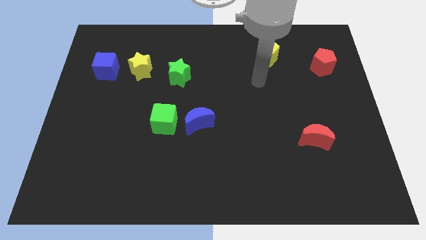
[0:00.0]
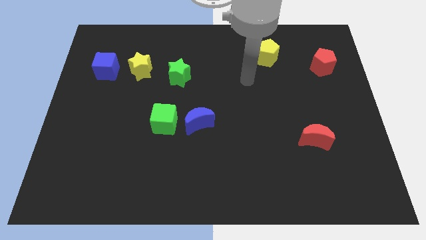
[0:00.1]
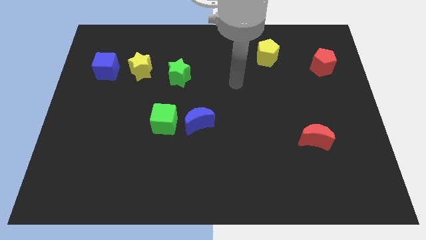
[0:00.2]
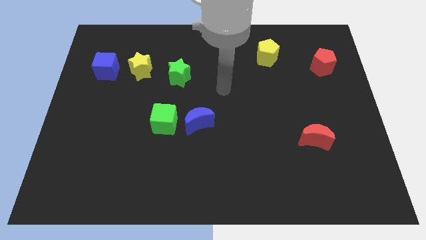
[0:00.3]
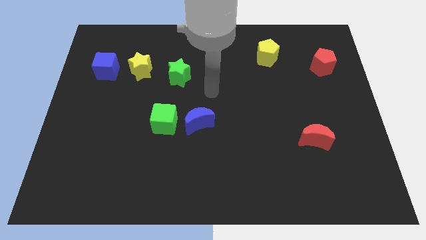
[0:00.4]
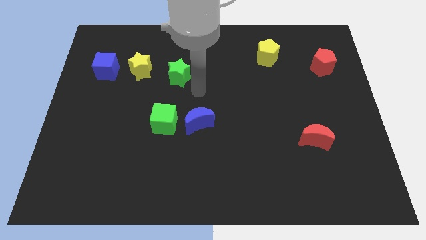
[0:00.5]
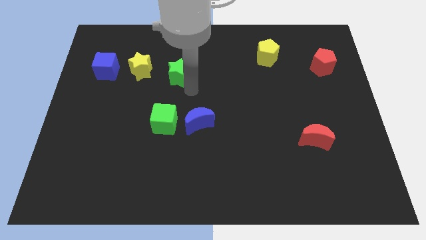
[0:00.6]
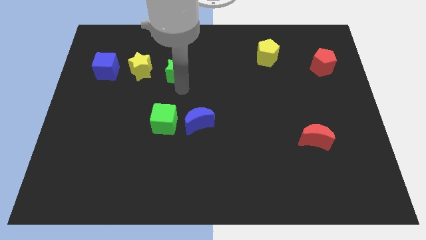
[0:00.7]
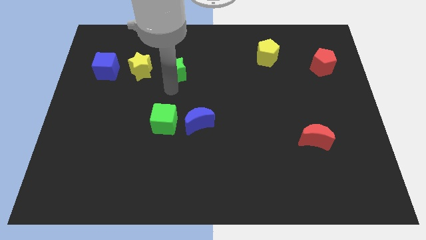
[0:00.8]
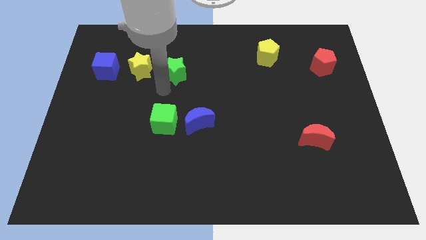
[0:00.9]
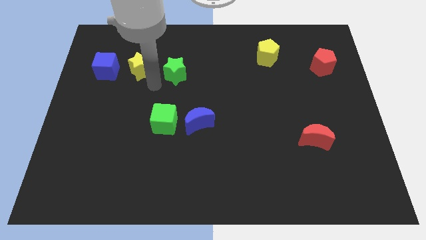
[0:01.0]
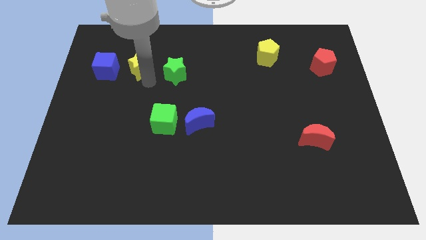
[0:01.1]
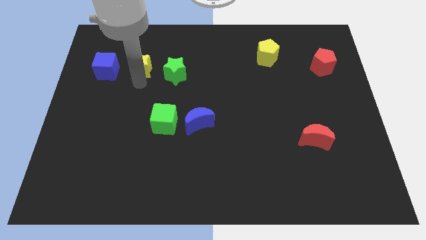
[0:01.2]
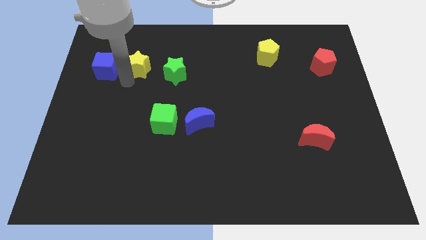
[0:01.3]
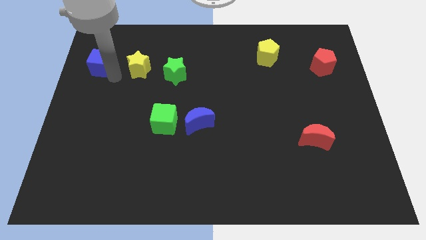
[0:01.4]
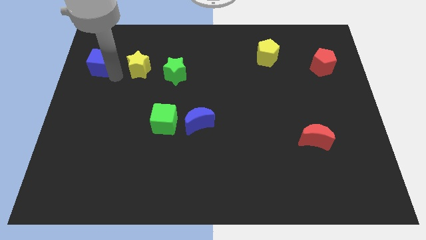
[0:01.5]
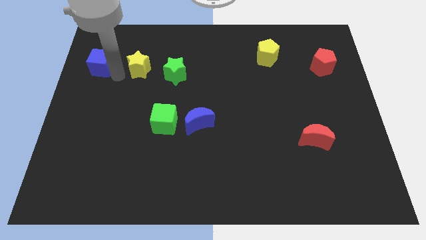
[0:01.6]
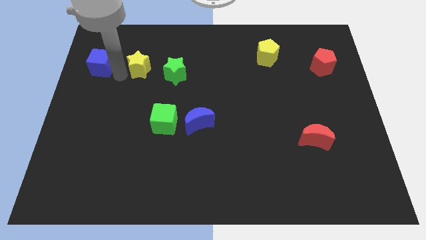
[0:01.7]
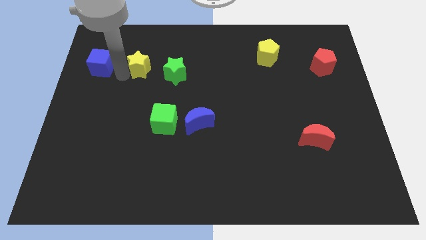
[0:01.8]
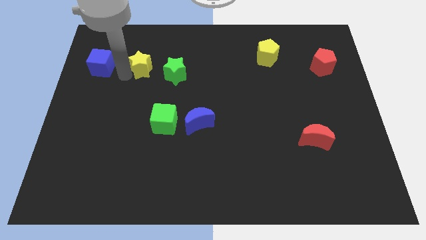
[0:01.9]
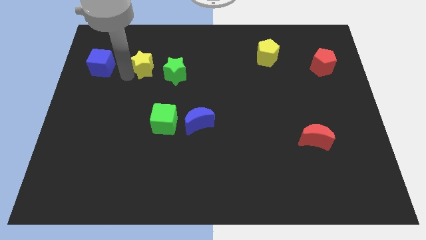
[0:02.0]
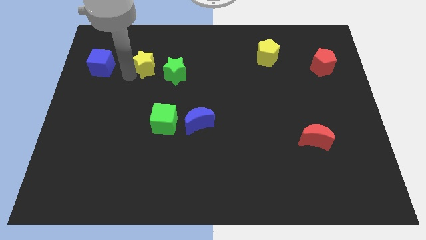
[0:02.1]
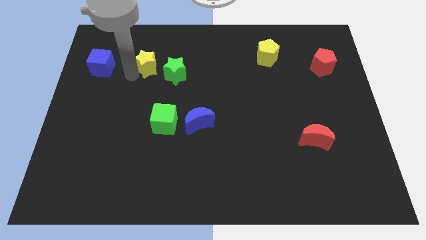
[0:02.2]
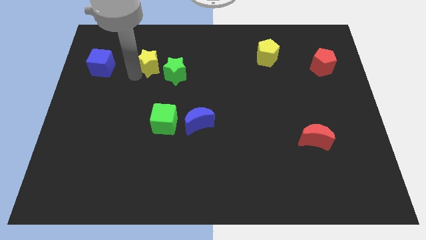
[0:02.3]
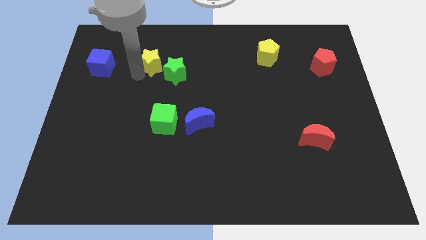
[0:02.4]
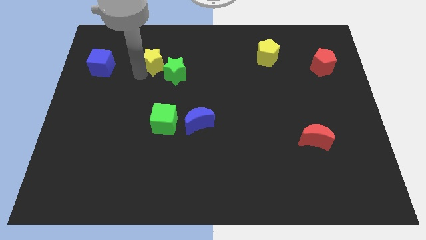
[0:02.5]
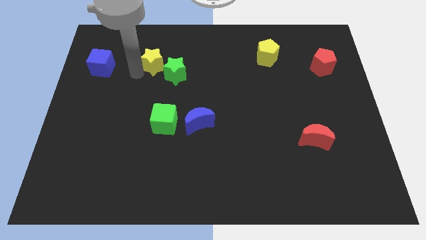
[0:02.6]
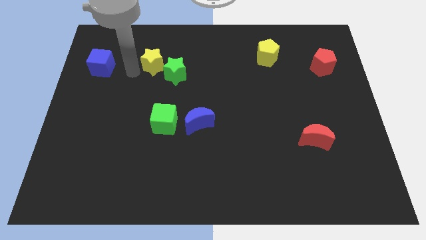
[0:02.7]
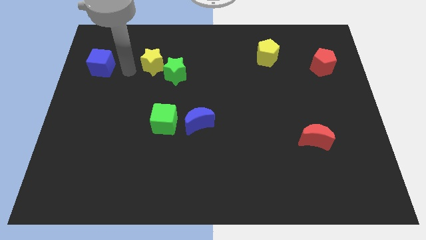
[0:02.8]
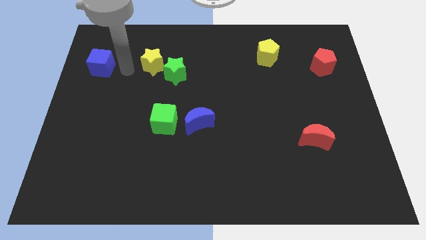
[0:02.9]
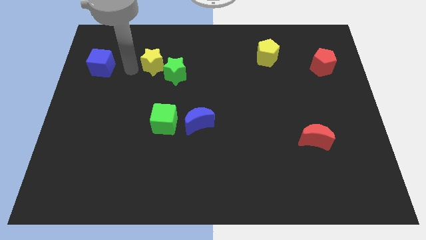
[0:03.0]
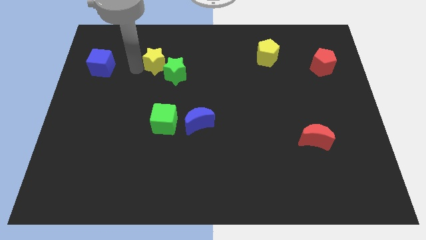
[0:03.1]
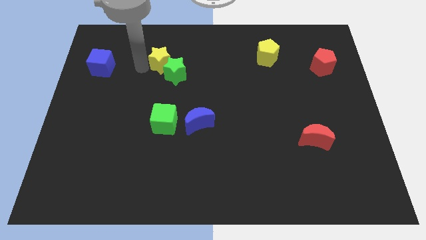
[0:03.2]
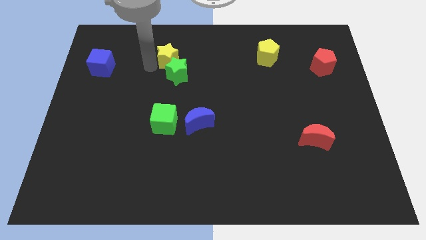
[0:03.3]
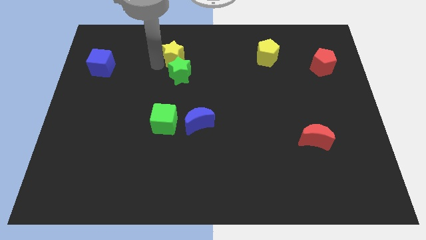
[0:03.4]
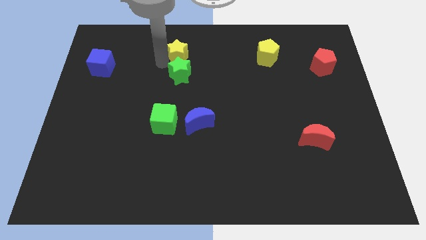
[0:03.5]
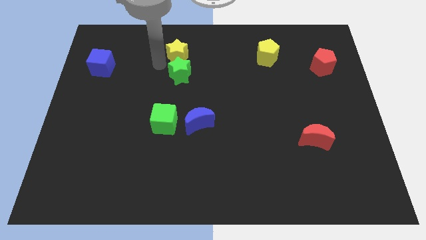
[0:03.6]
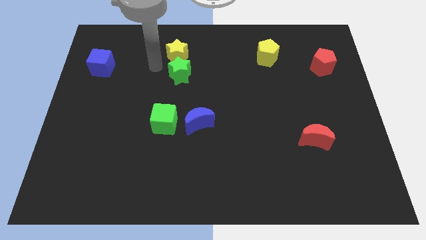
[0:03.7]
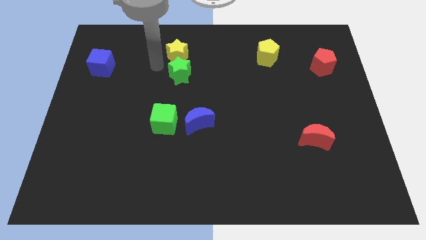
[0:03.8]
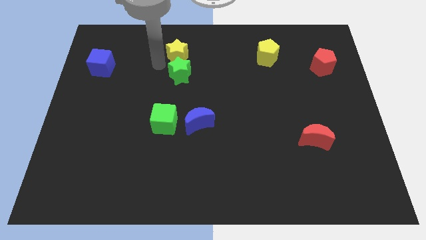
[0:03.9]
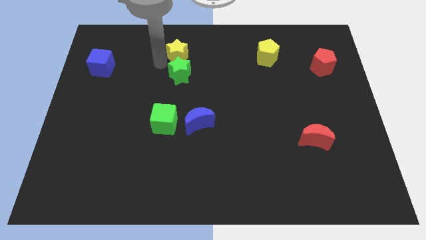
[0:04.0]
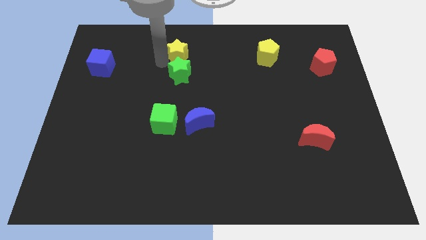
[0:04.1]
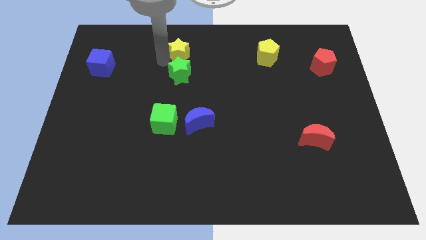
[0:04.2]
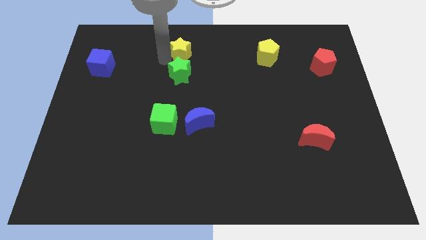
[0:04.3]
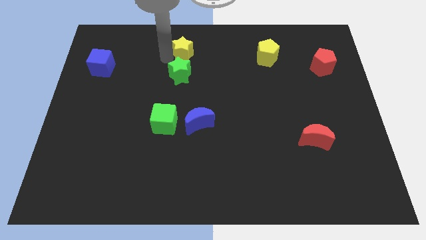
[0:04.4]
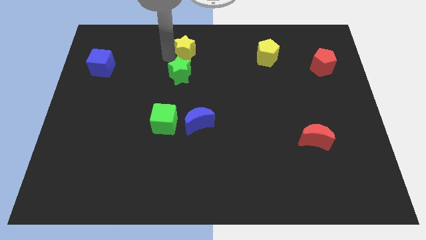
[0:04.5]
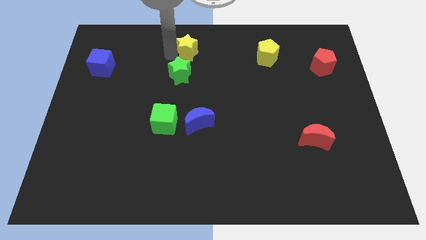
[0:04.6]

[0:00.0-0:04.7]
put the yellow star to the top side

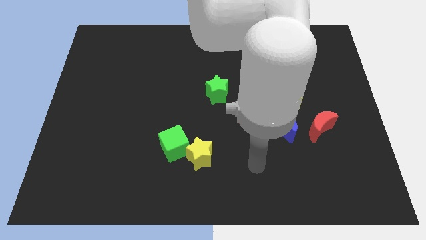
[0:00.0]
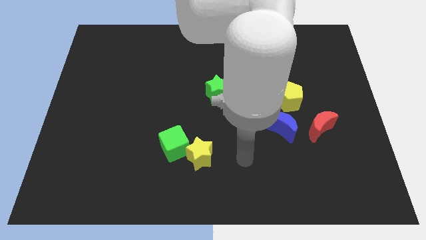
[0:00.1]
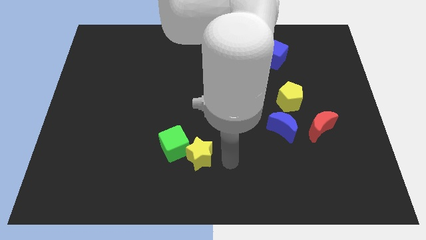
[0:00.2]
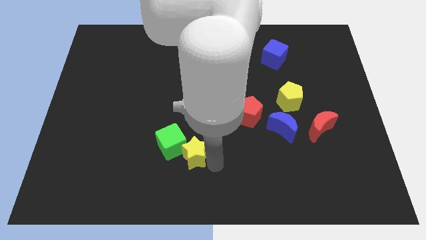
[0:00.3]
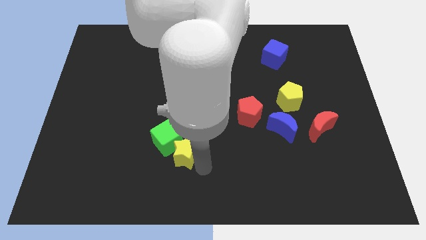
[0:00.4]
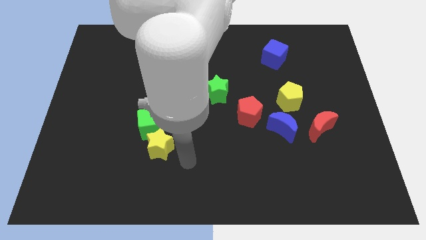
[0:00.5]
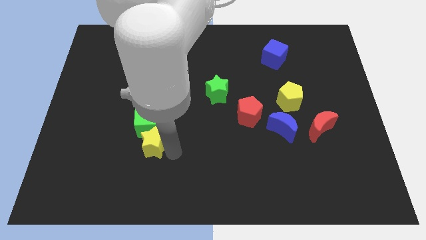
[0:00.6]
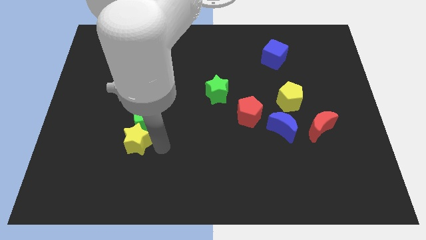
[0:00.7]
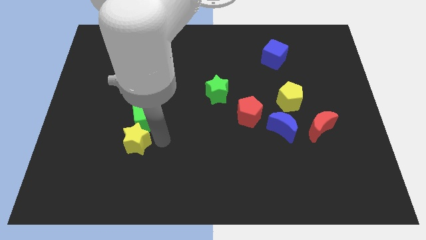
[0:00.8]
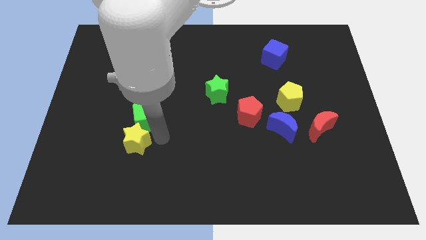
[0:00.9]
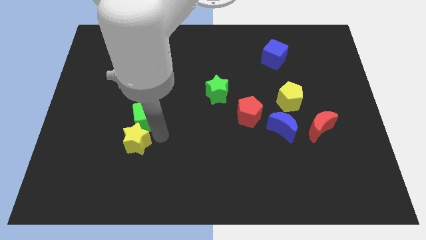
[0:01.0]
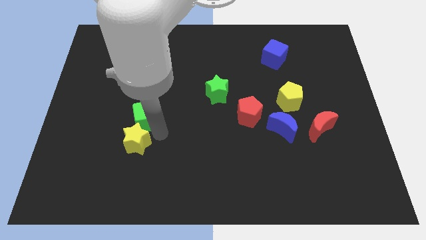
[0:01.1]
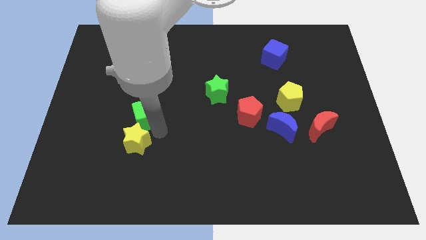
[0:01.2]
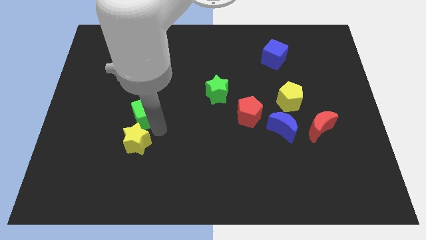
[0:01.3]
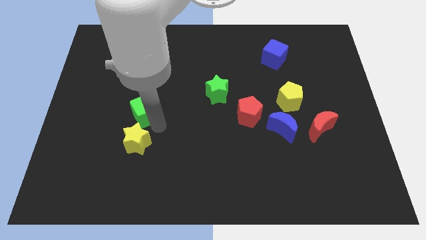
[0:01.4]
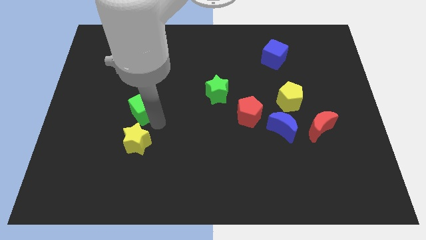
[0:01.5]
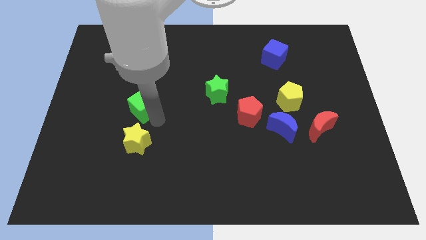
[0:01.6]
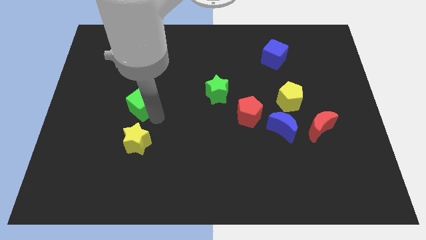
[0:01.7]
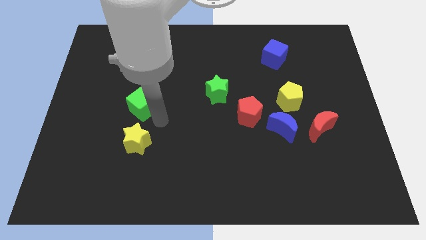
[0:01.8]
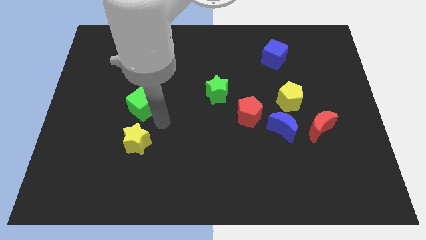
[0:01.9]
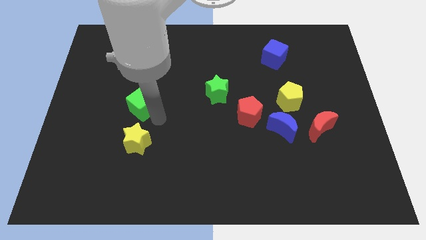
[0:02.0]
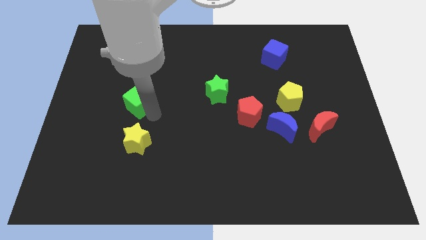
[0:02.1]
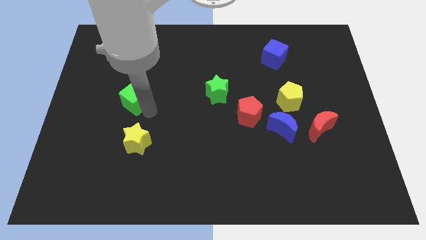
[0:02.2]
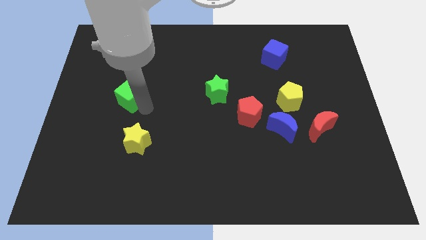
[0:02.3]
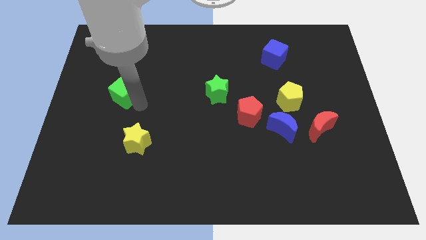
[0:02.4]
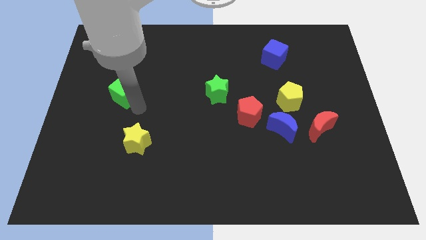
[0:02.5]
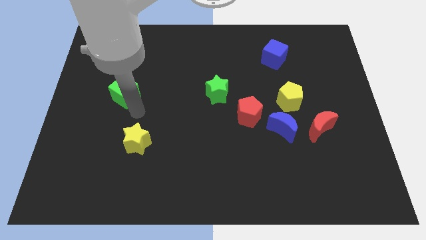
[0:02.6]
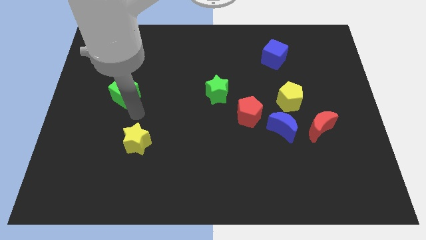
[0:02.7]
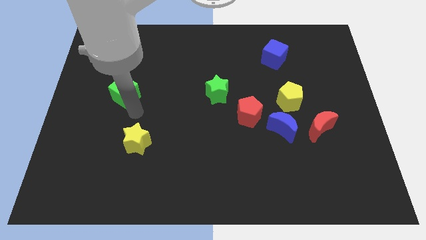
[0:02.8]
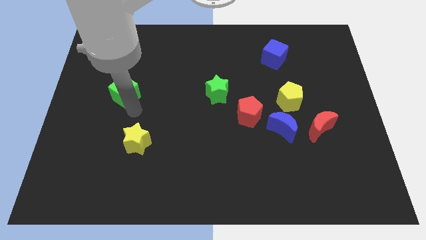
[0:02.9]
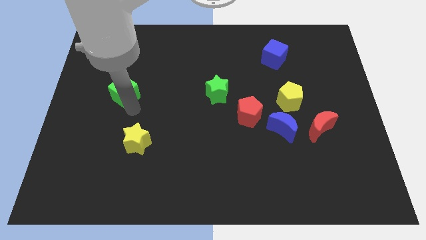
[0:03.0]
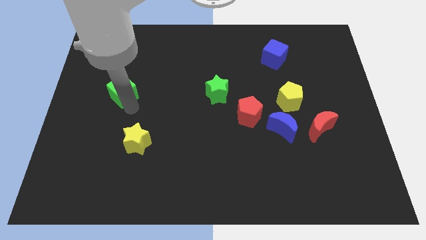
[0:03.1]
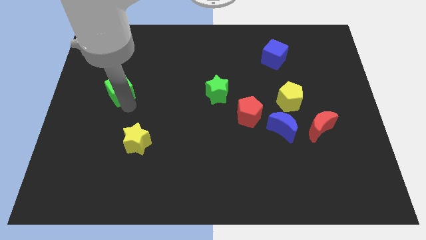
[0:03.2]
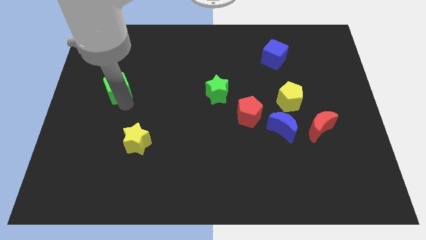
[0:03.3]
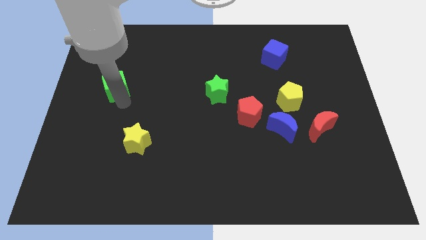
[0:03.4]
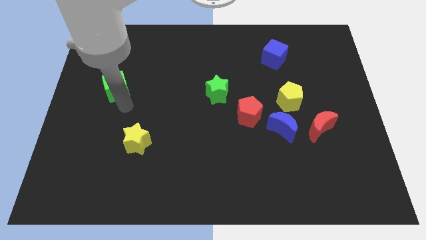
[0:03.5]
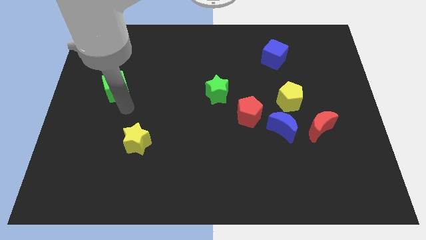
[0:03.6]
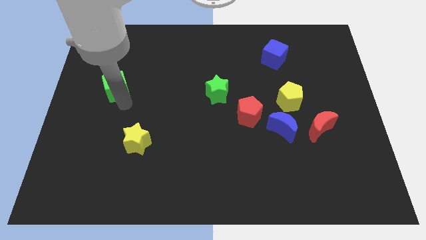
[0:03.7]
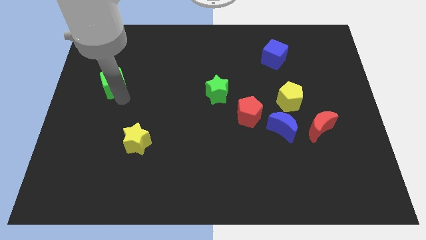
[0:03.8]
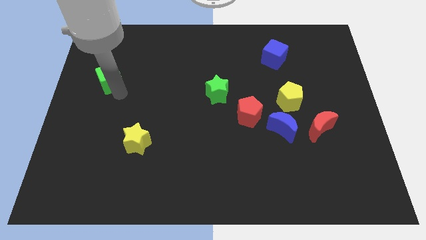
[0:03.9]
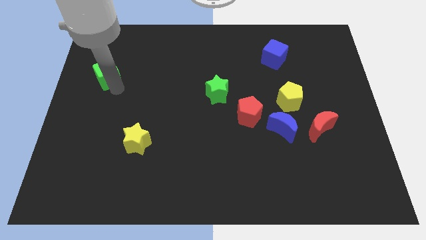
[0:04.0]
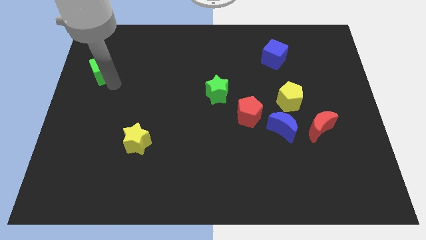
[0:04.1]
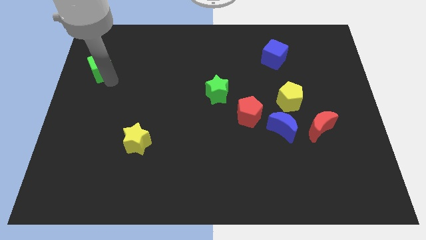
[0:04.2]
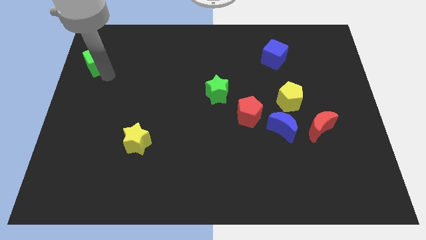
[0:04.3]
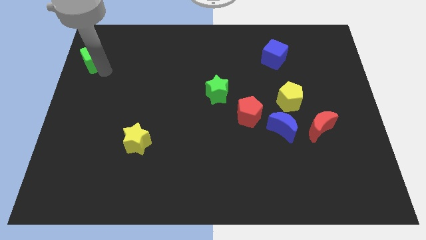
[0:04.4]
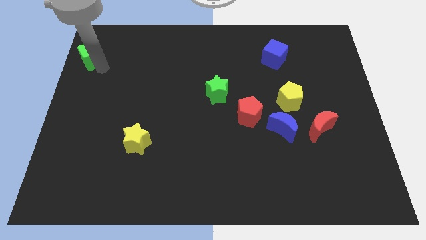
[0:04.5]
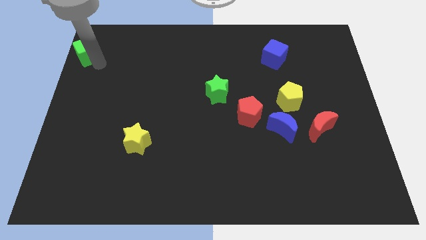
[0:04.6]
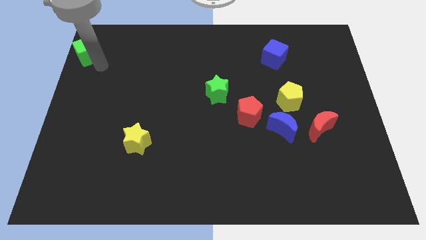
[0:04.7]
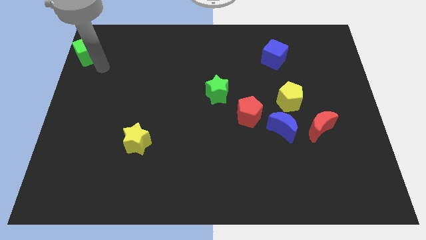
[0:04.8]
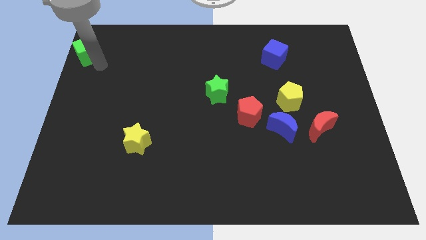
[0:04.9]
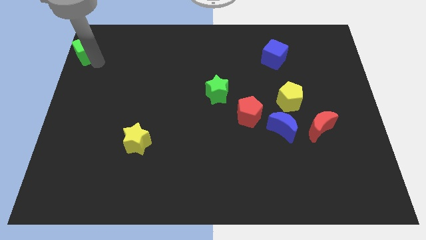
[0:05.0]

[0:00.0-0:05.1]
move the green cube to the top left of the board
